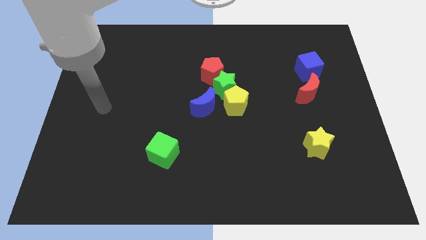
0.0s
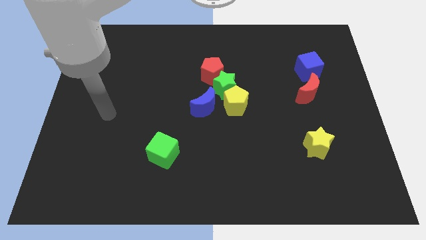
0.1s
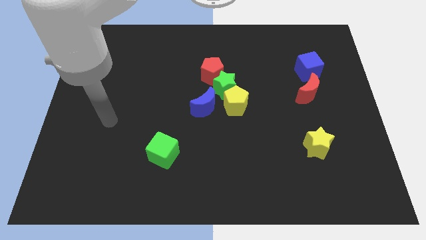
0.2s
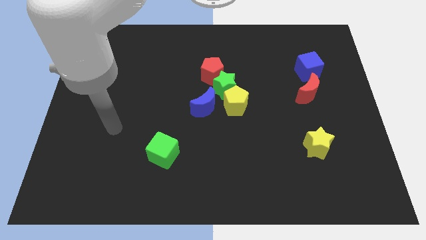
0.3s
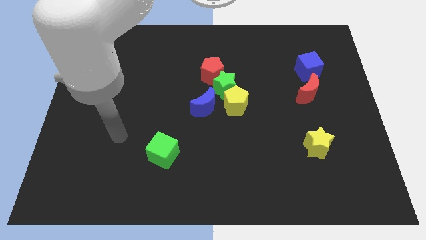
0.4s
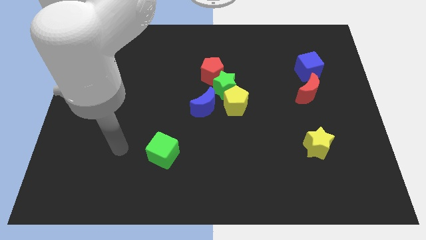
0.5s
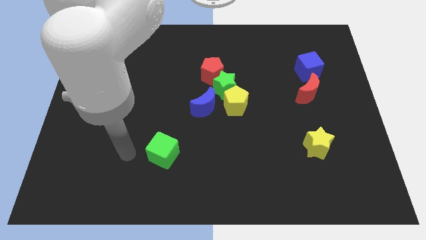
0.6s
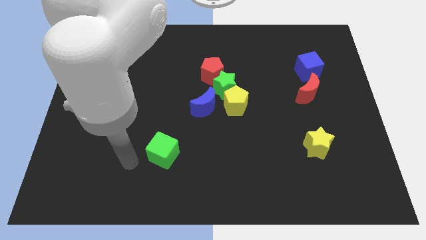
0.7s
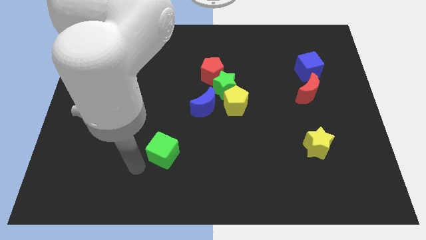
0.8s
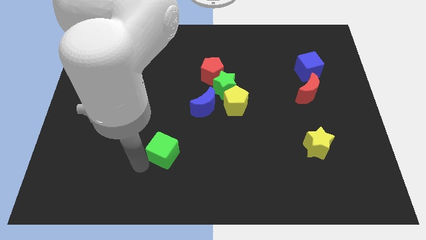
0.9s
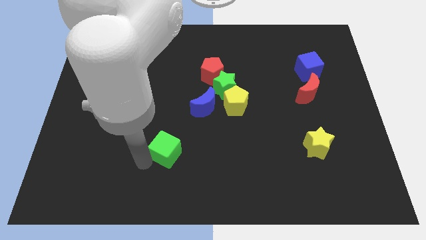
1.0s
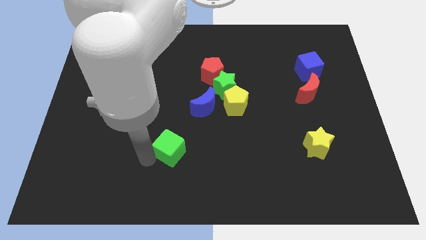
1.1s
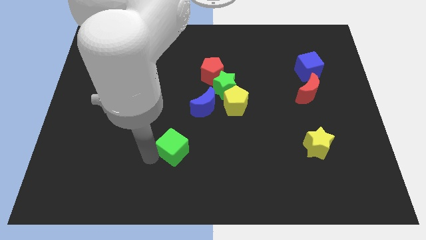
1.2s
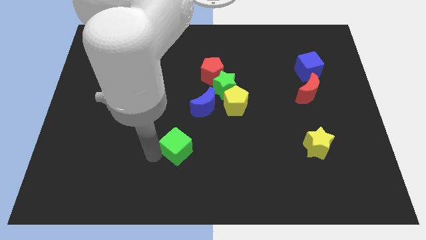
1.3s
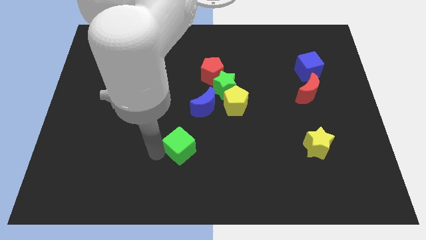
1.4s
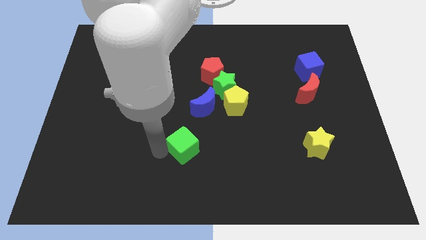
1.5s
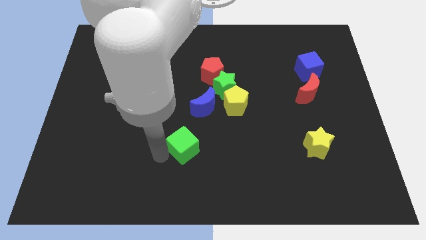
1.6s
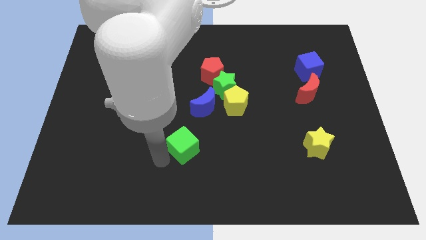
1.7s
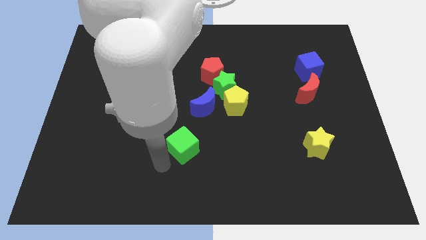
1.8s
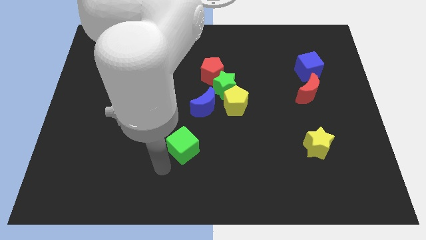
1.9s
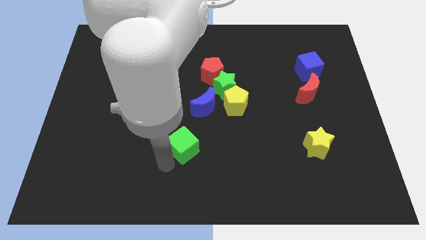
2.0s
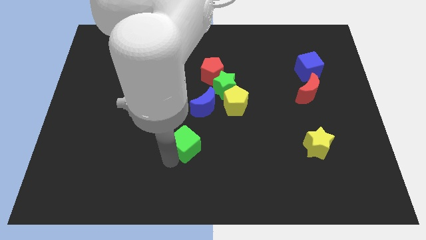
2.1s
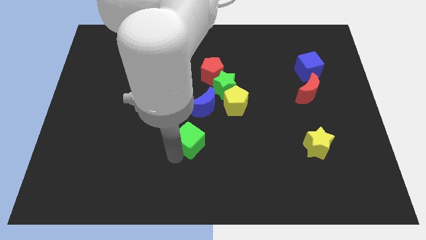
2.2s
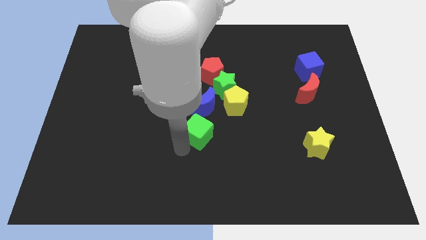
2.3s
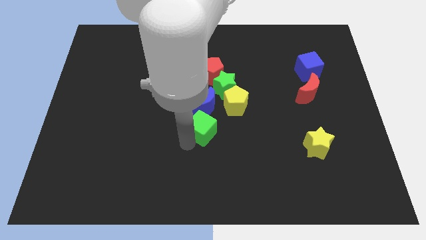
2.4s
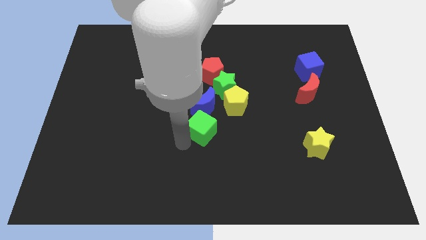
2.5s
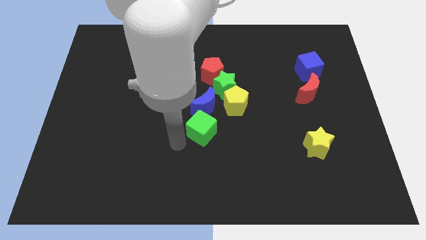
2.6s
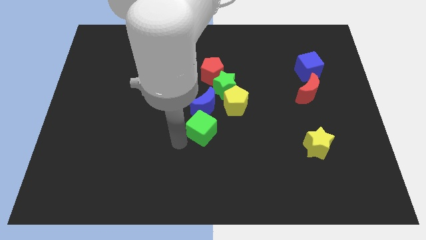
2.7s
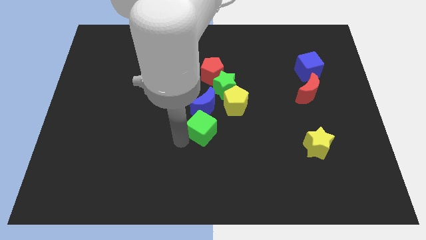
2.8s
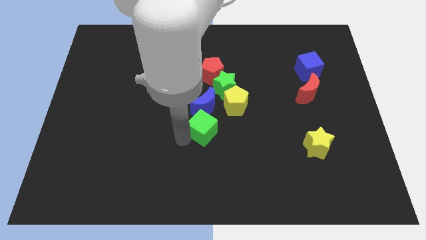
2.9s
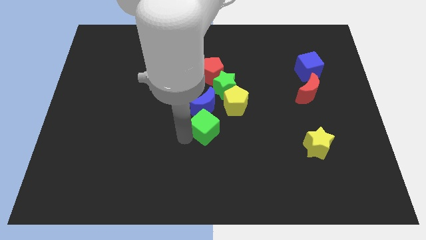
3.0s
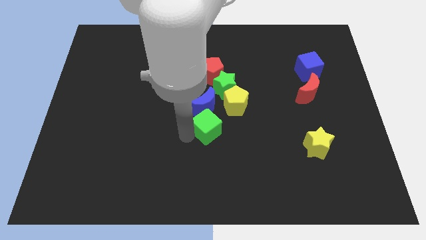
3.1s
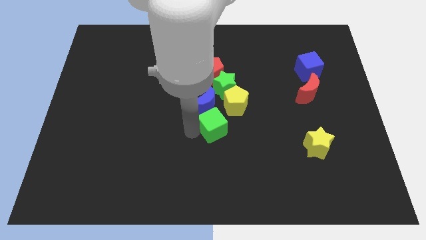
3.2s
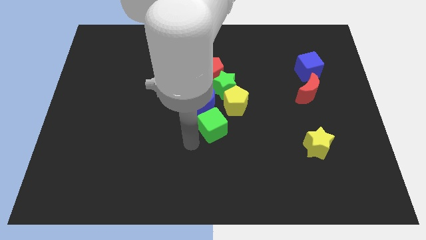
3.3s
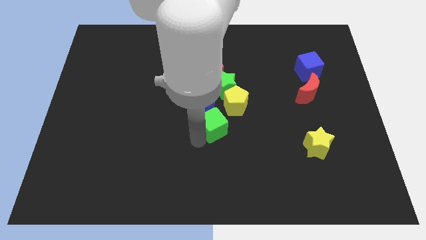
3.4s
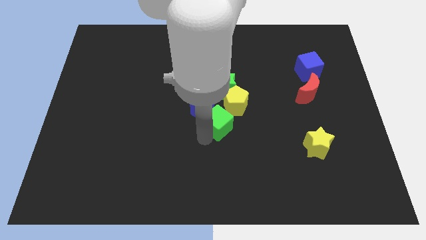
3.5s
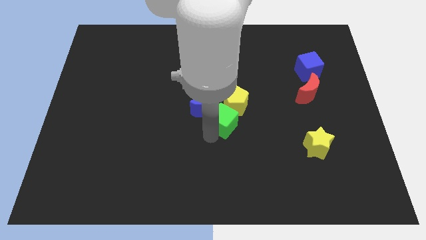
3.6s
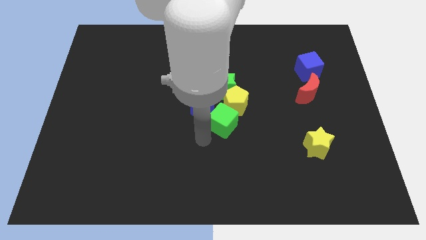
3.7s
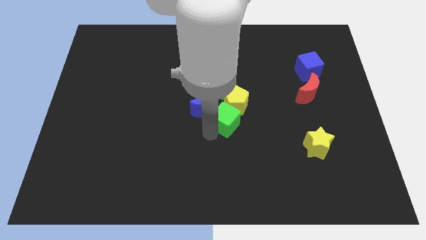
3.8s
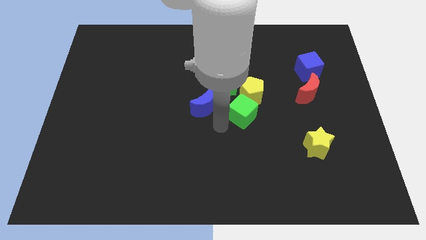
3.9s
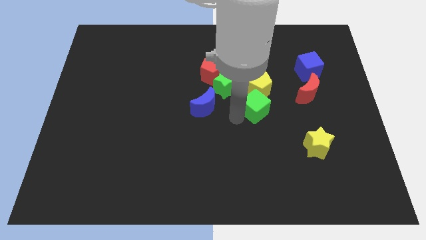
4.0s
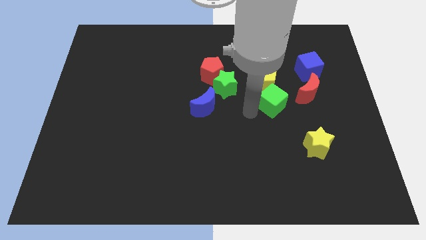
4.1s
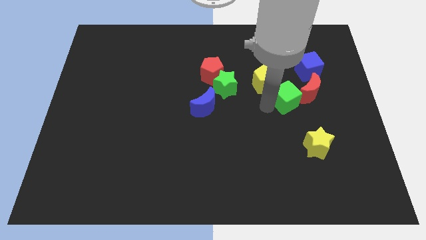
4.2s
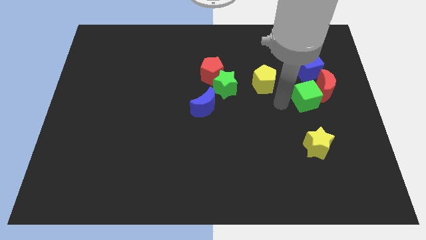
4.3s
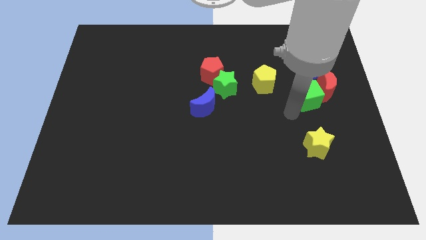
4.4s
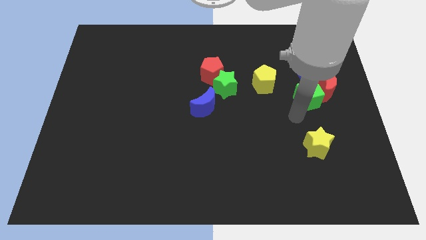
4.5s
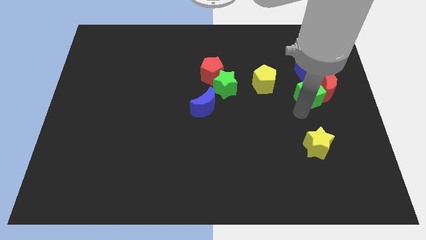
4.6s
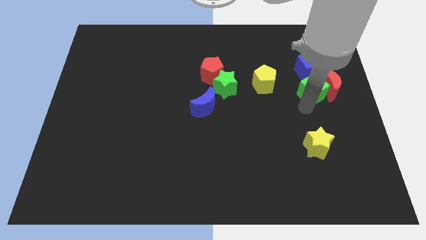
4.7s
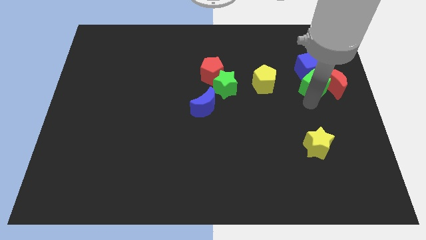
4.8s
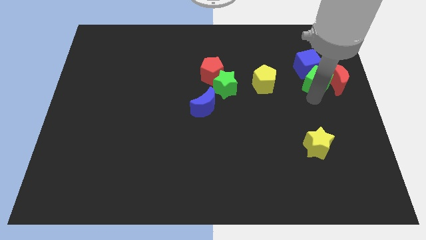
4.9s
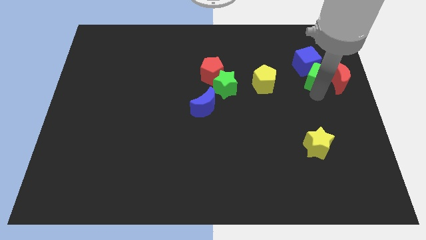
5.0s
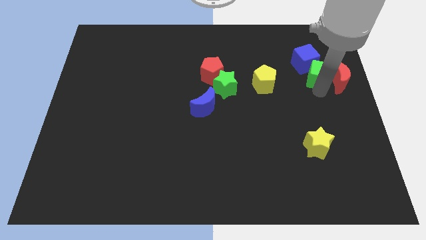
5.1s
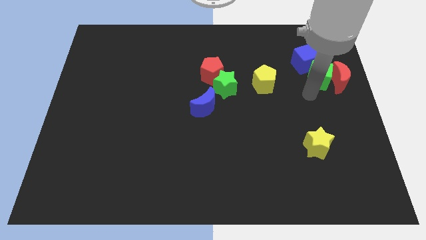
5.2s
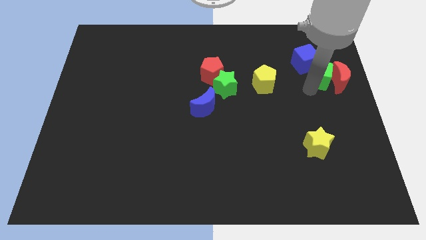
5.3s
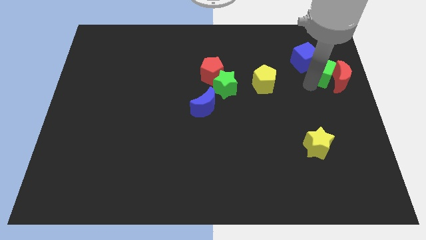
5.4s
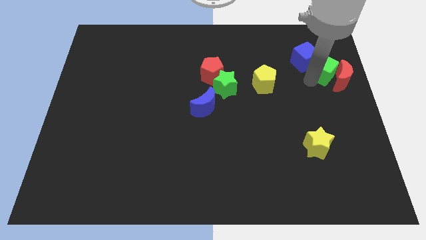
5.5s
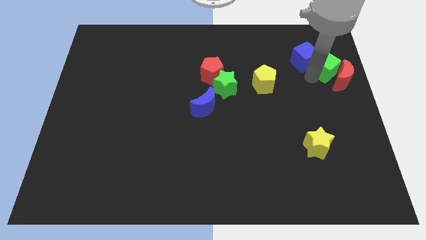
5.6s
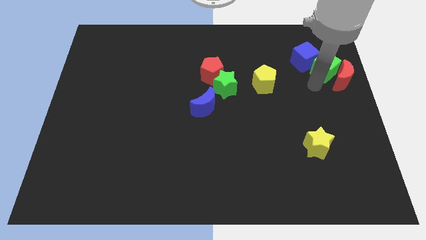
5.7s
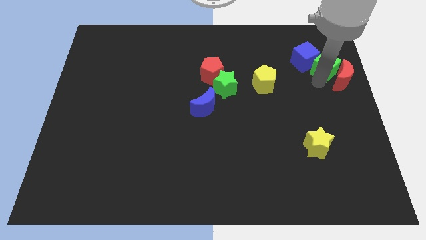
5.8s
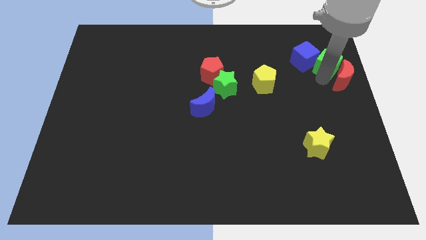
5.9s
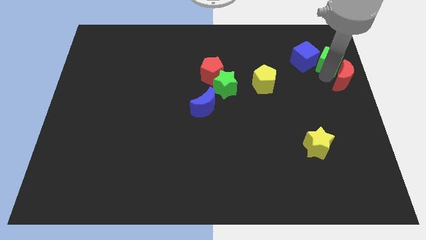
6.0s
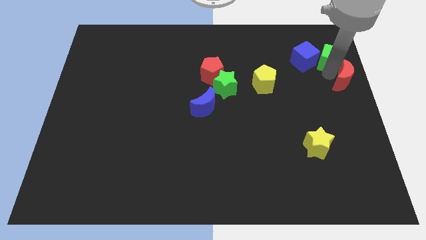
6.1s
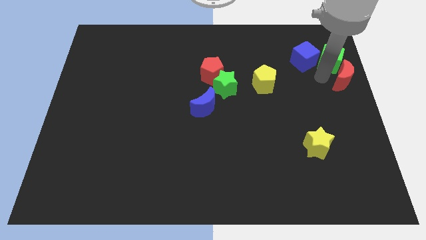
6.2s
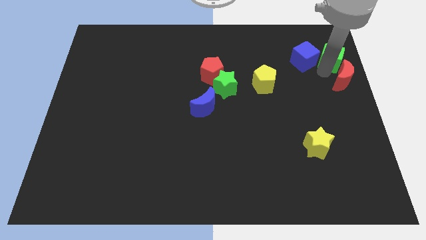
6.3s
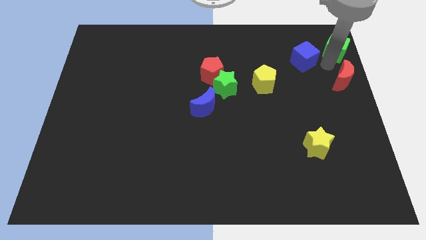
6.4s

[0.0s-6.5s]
slide the green cube to the top right

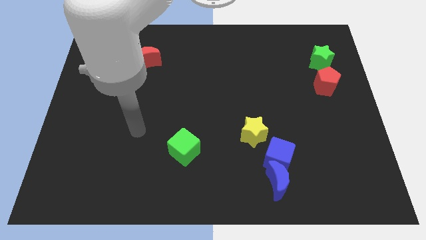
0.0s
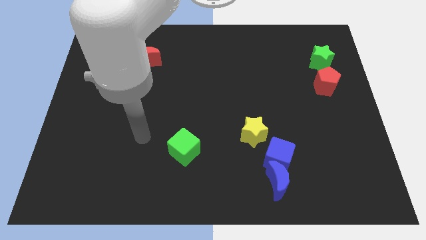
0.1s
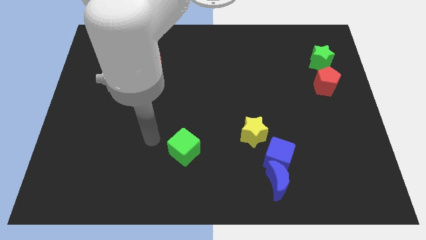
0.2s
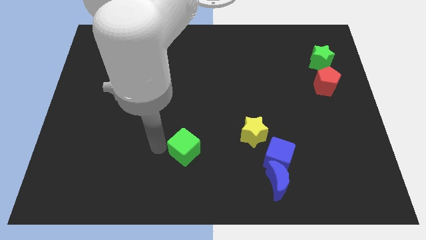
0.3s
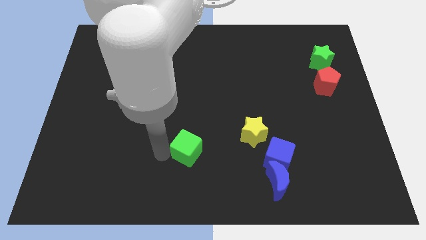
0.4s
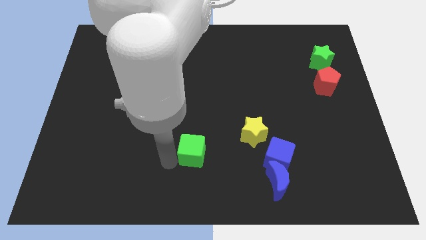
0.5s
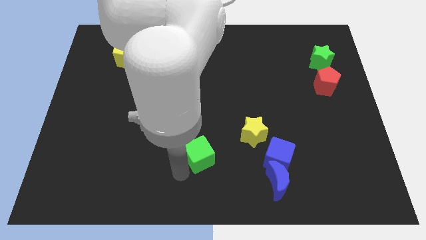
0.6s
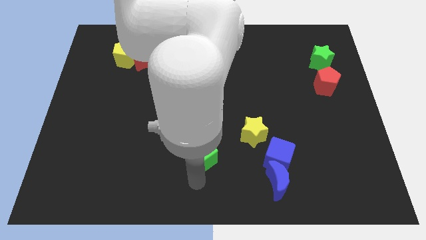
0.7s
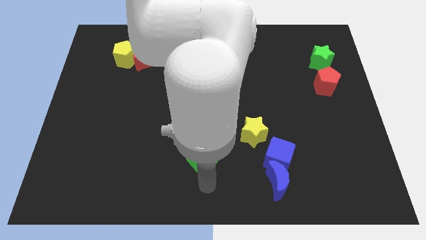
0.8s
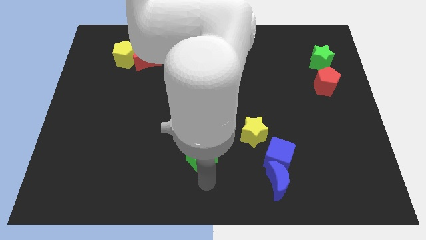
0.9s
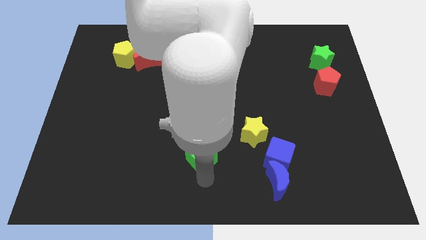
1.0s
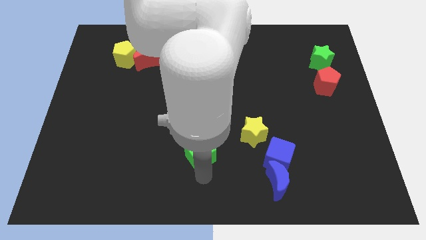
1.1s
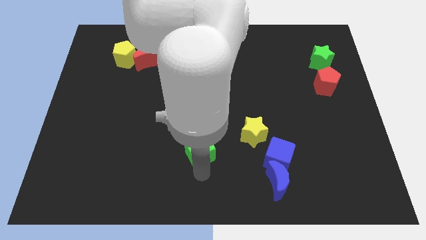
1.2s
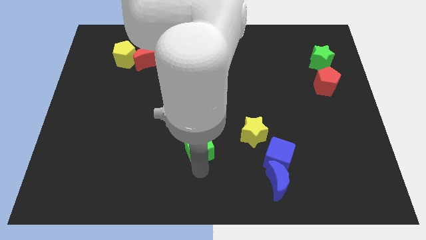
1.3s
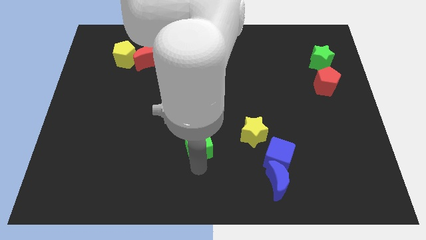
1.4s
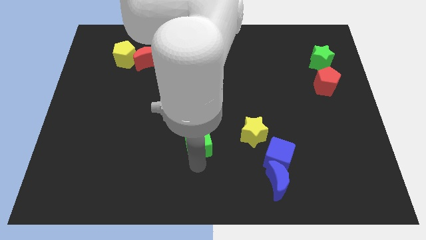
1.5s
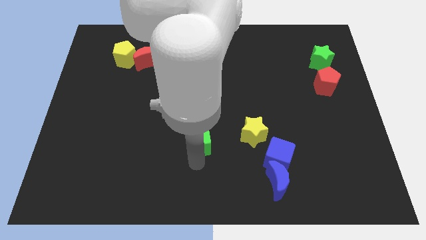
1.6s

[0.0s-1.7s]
move the green cube to the middle of the board
